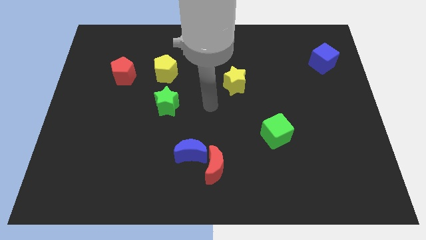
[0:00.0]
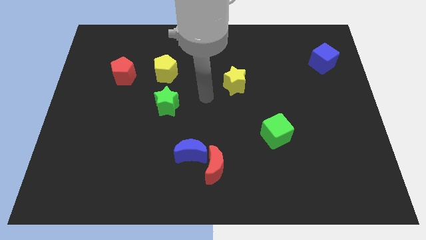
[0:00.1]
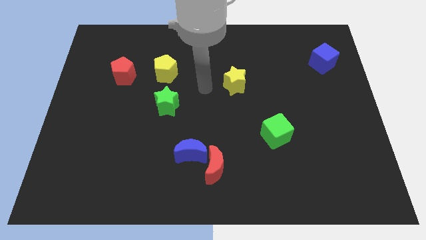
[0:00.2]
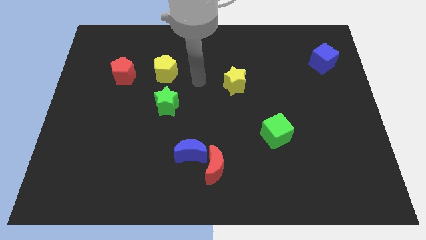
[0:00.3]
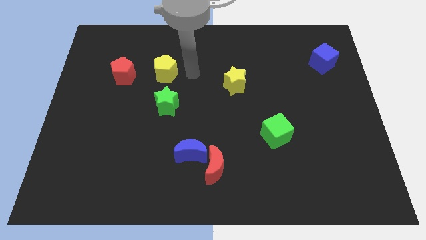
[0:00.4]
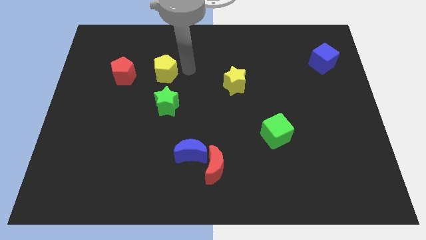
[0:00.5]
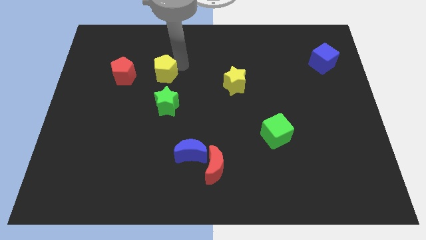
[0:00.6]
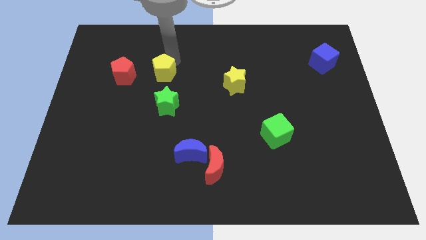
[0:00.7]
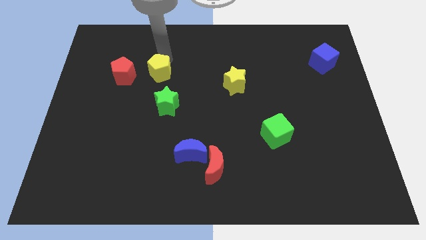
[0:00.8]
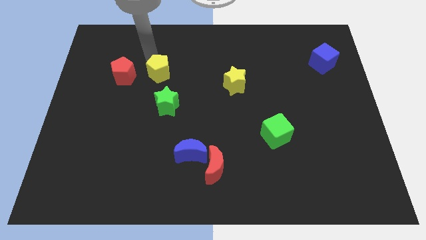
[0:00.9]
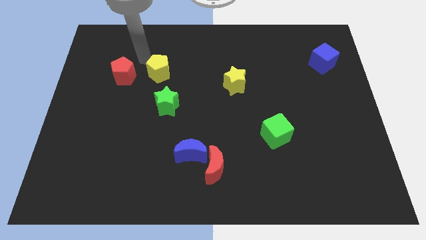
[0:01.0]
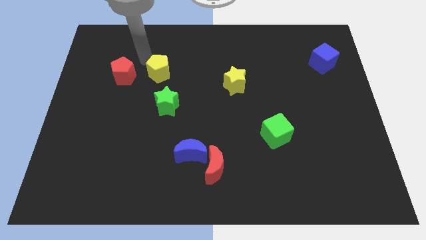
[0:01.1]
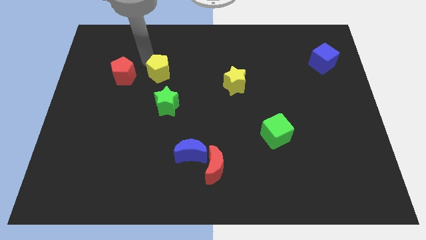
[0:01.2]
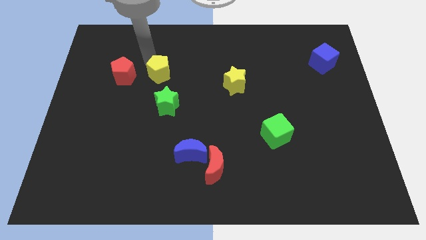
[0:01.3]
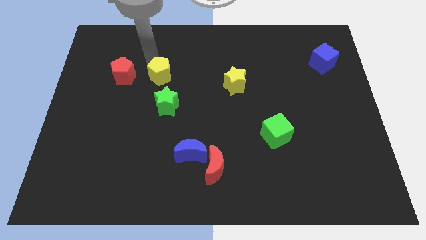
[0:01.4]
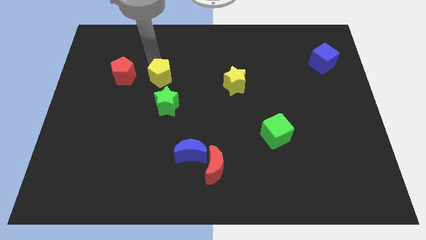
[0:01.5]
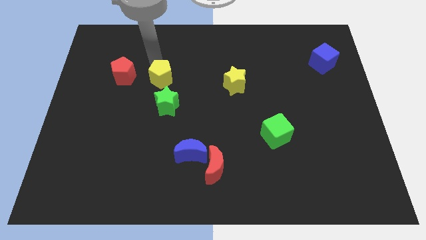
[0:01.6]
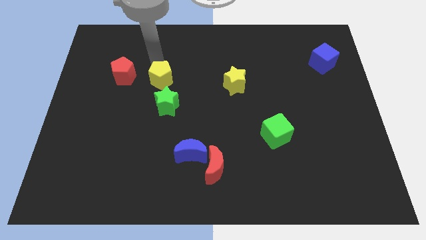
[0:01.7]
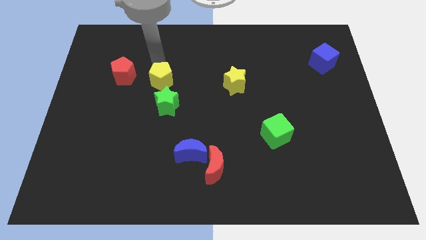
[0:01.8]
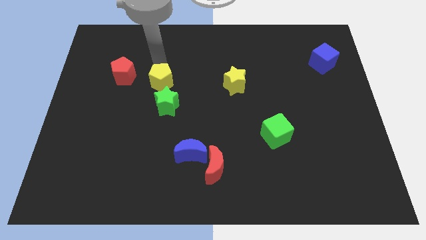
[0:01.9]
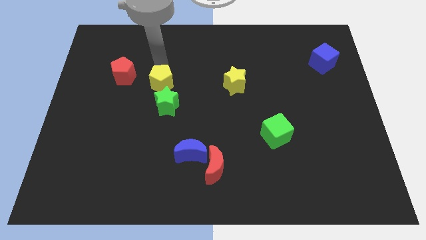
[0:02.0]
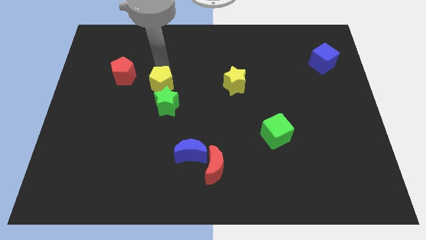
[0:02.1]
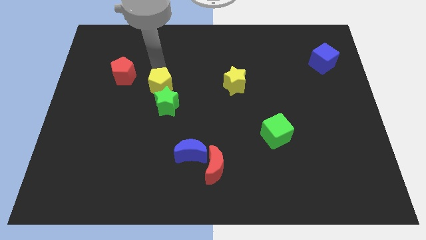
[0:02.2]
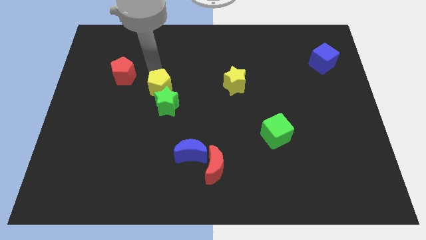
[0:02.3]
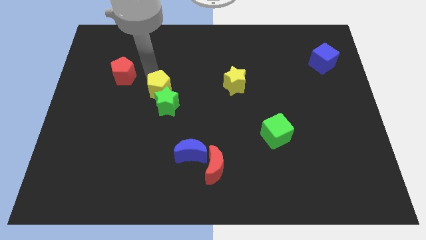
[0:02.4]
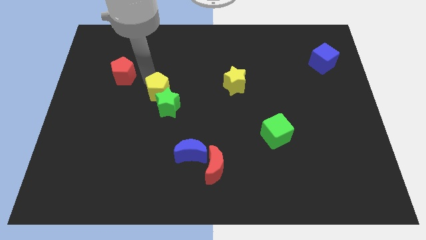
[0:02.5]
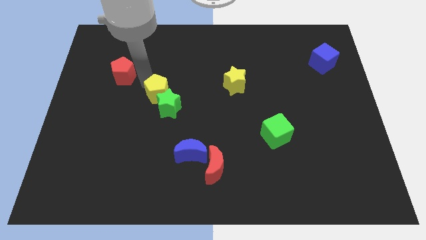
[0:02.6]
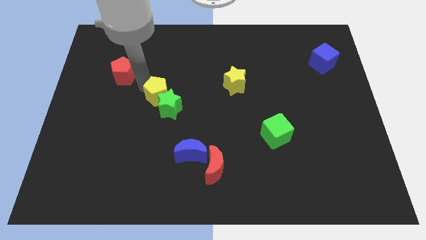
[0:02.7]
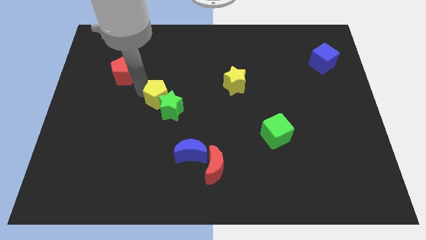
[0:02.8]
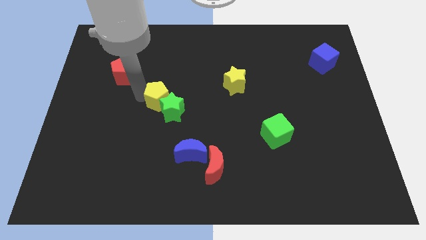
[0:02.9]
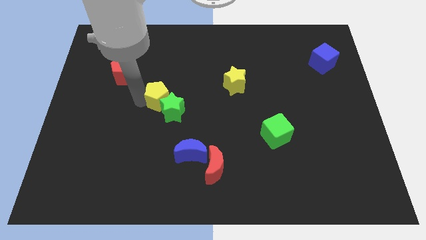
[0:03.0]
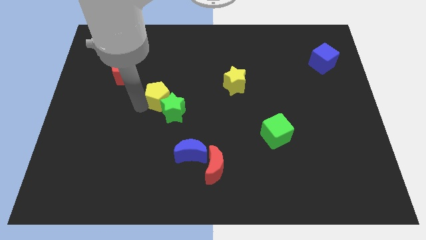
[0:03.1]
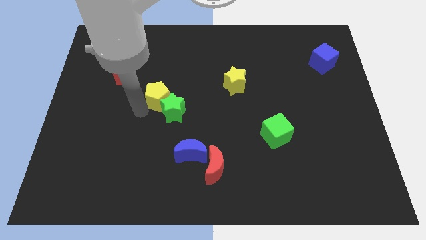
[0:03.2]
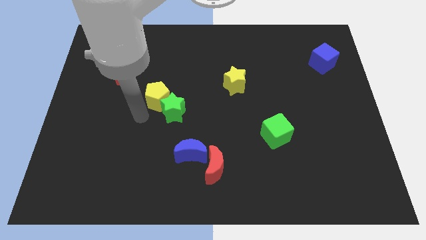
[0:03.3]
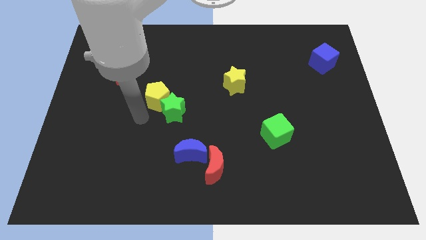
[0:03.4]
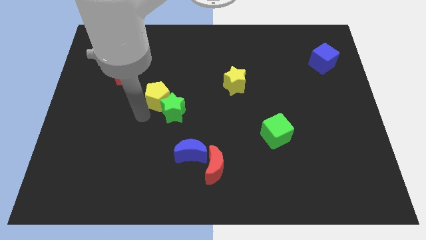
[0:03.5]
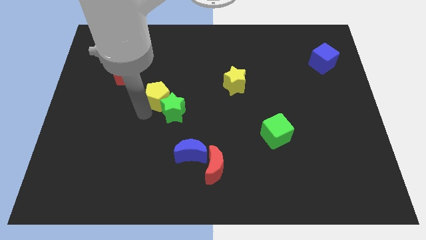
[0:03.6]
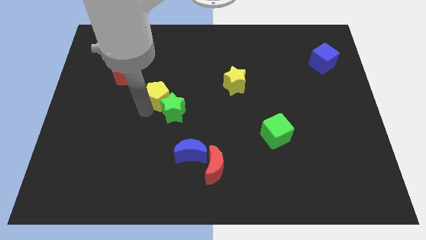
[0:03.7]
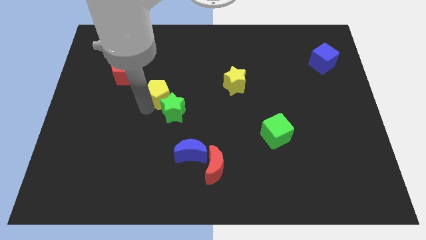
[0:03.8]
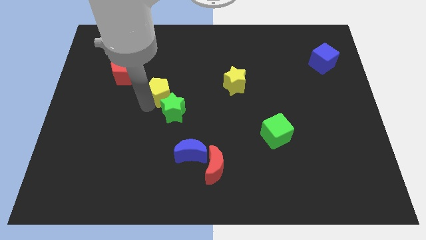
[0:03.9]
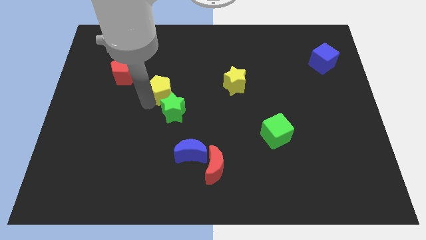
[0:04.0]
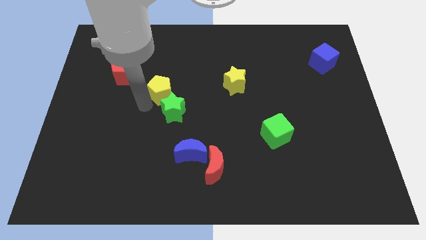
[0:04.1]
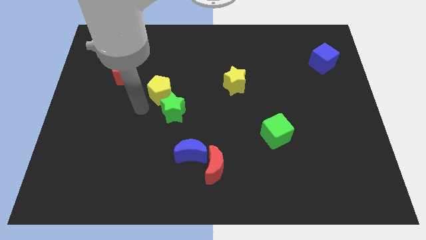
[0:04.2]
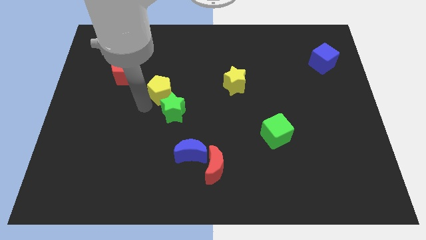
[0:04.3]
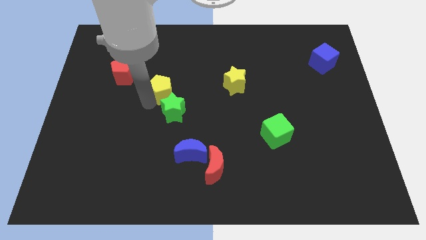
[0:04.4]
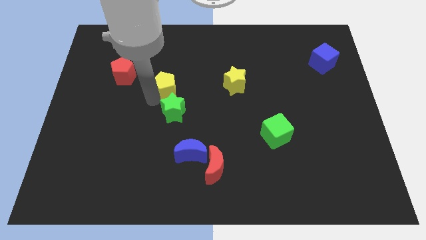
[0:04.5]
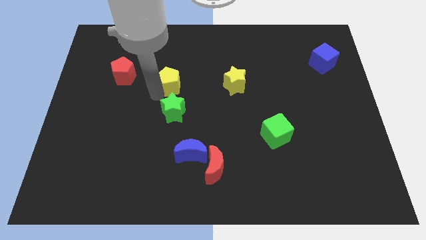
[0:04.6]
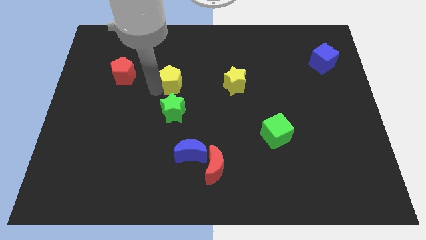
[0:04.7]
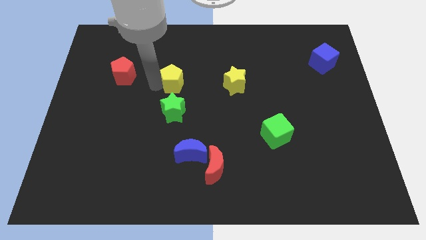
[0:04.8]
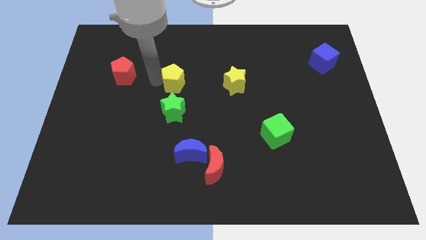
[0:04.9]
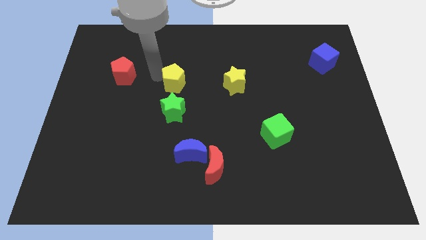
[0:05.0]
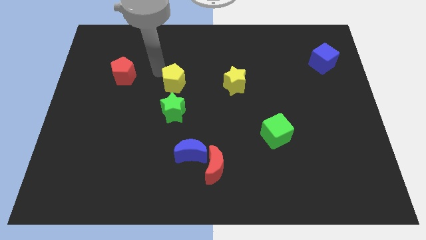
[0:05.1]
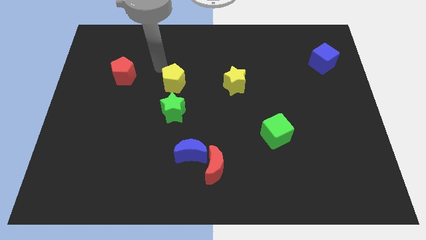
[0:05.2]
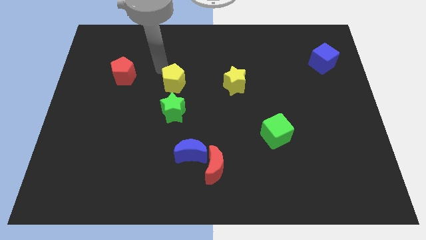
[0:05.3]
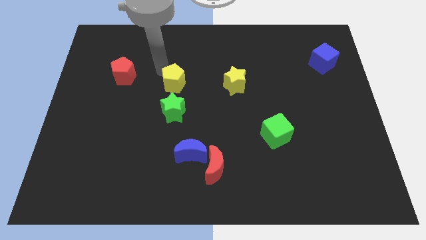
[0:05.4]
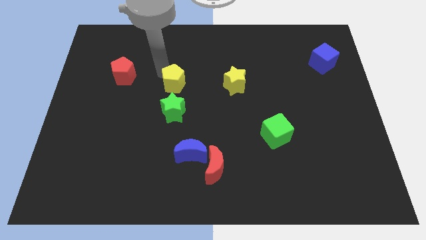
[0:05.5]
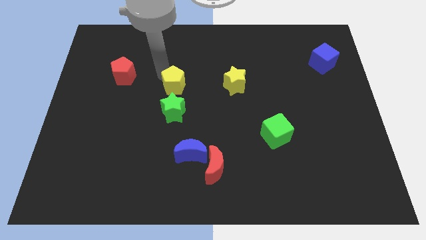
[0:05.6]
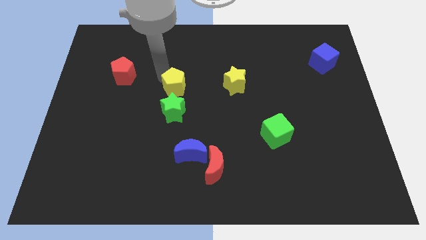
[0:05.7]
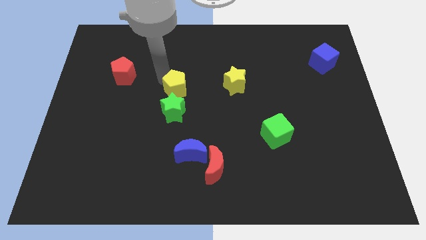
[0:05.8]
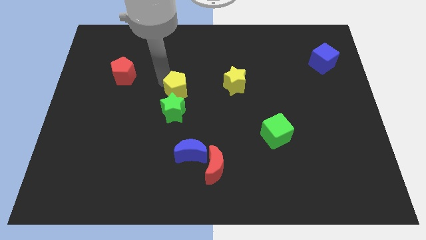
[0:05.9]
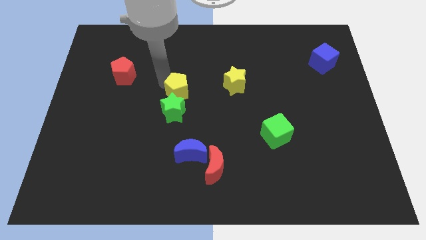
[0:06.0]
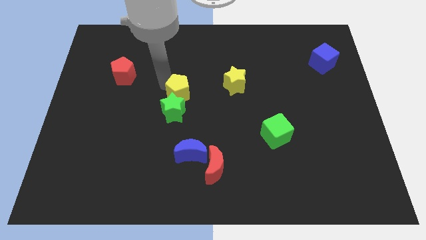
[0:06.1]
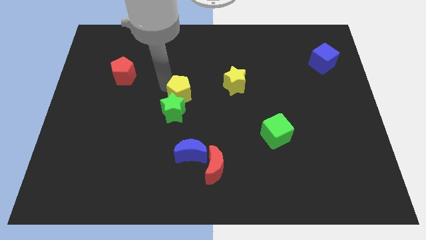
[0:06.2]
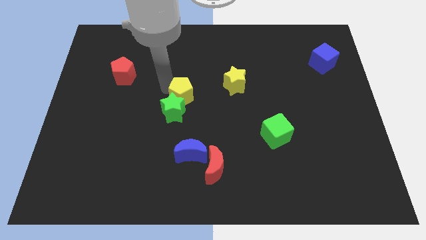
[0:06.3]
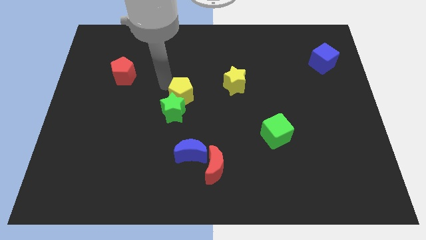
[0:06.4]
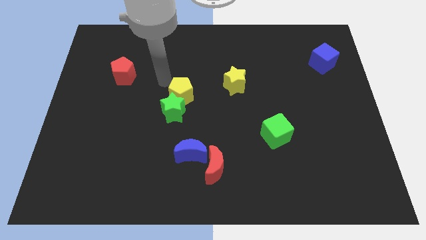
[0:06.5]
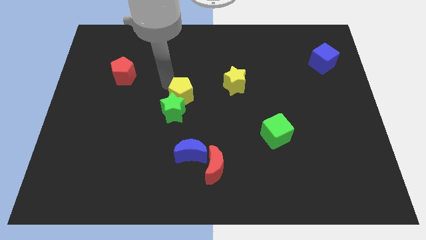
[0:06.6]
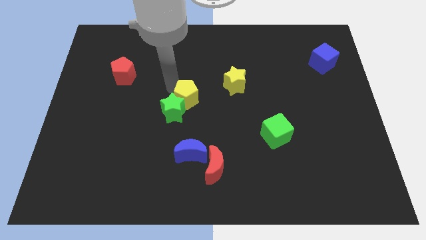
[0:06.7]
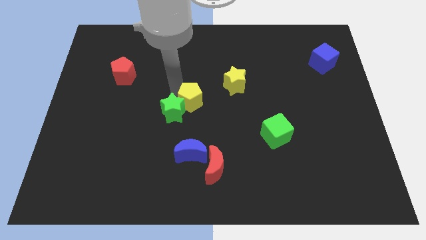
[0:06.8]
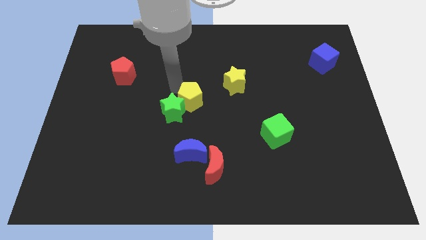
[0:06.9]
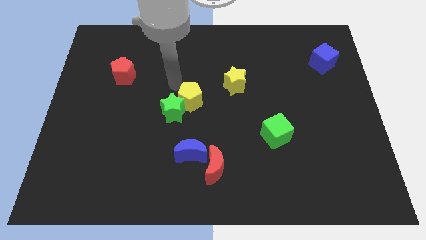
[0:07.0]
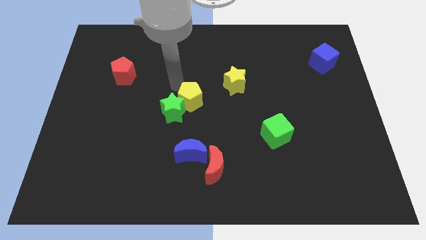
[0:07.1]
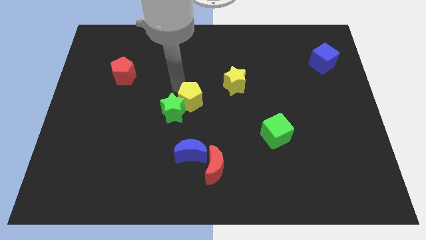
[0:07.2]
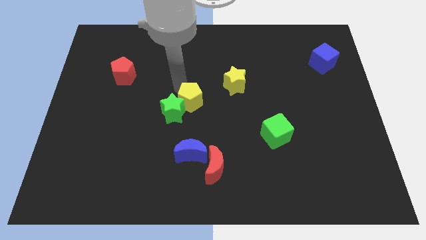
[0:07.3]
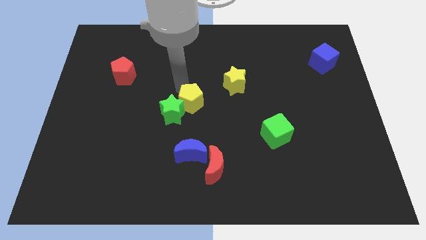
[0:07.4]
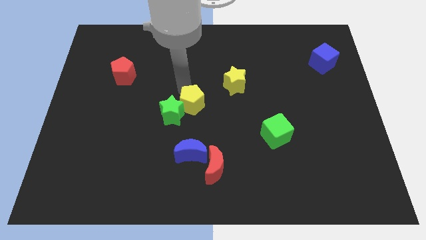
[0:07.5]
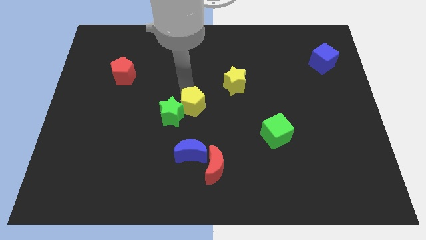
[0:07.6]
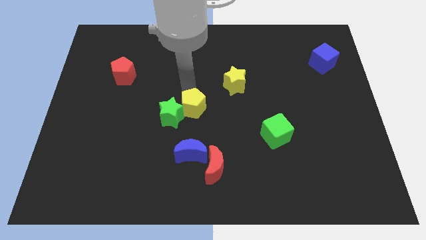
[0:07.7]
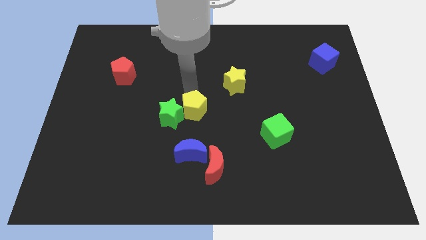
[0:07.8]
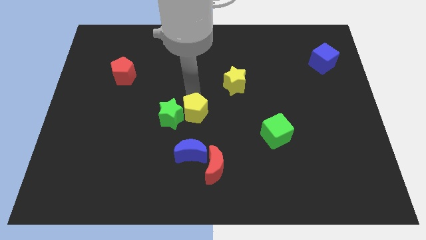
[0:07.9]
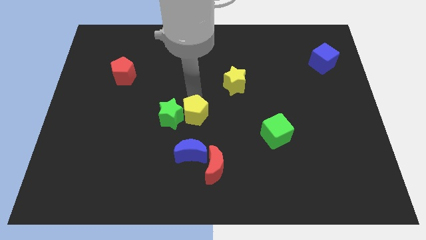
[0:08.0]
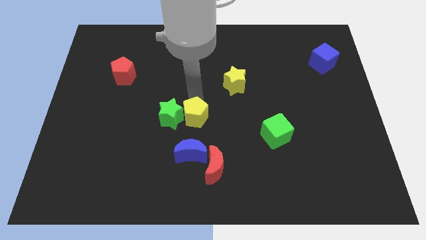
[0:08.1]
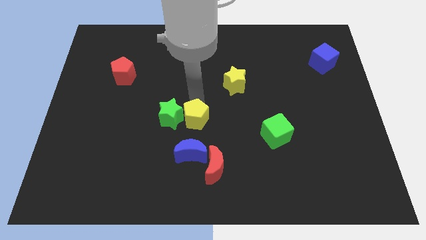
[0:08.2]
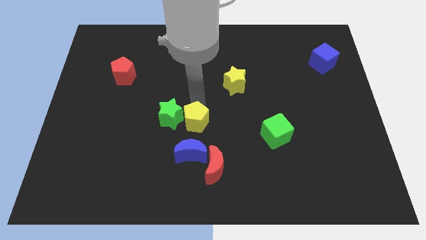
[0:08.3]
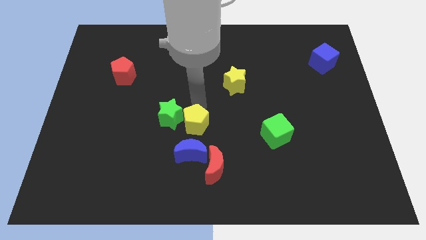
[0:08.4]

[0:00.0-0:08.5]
push the yellow pentagon diagonally up and to the right of the blue moon
